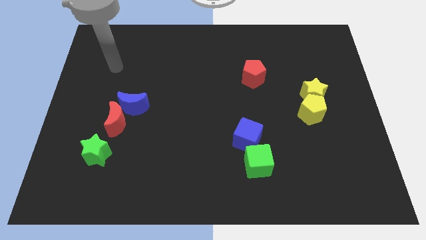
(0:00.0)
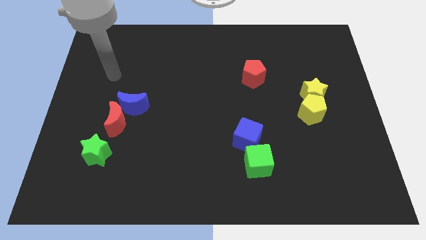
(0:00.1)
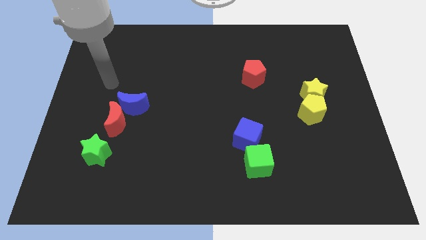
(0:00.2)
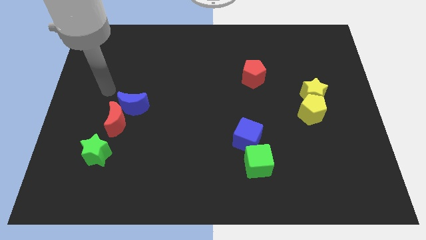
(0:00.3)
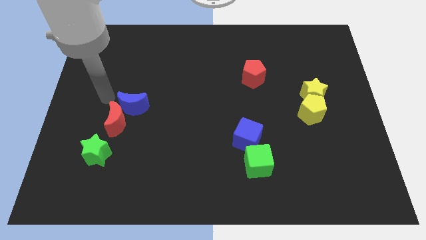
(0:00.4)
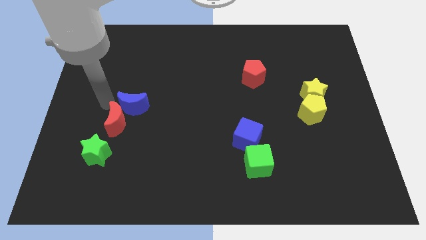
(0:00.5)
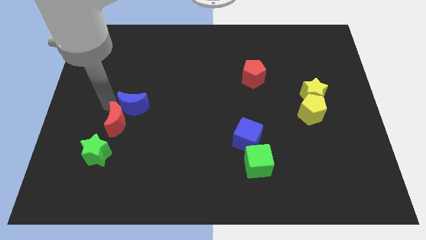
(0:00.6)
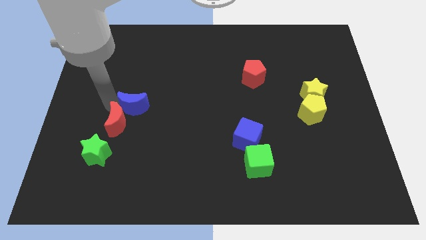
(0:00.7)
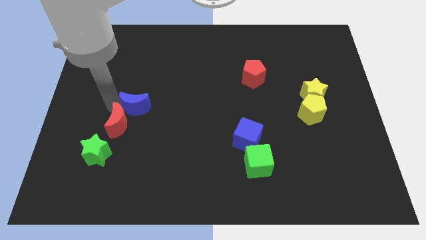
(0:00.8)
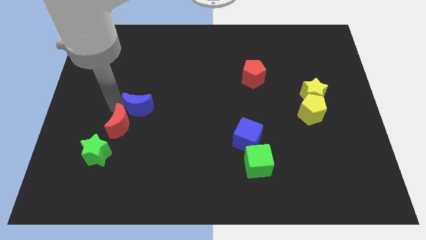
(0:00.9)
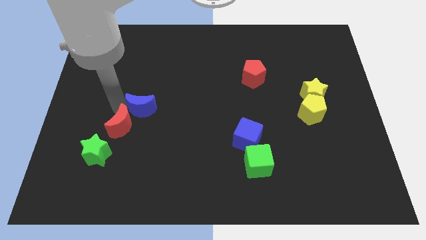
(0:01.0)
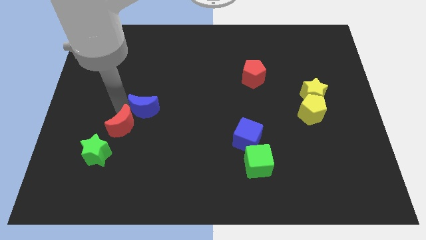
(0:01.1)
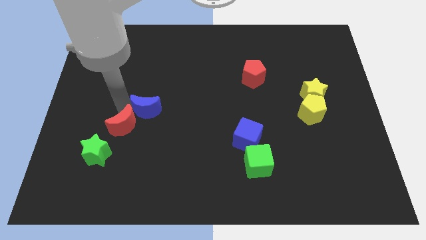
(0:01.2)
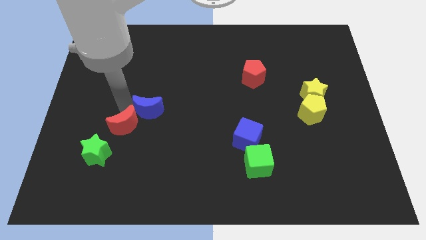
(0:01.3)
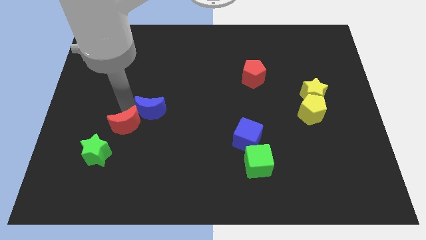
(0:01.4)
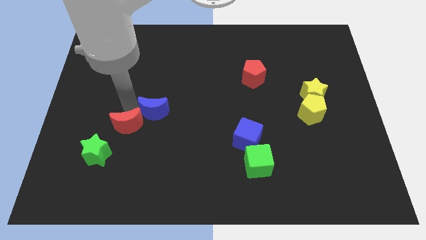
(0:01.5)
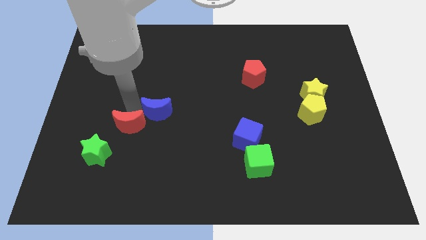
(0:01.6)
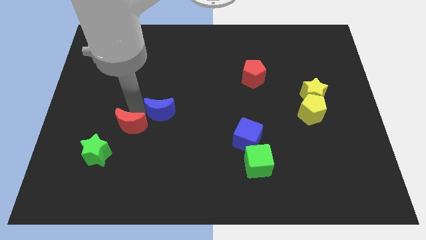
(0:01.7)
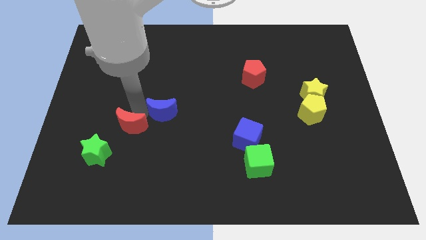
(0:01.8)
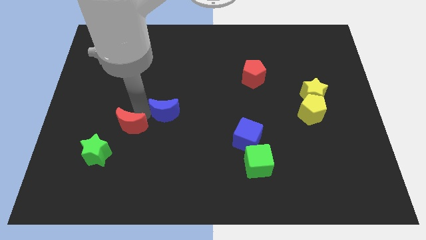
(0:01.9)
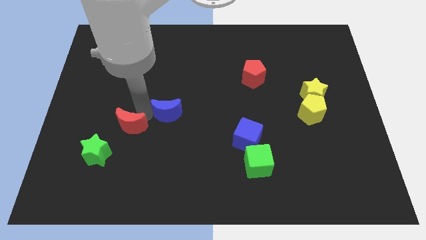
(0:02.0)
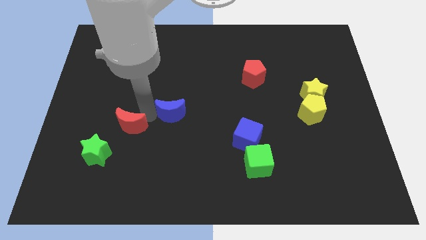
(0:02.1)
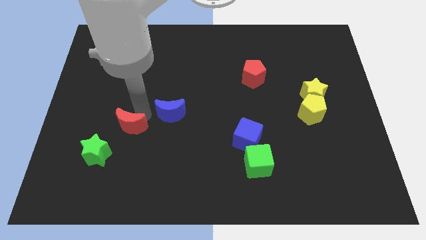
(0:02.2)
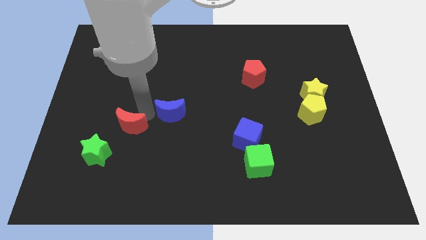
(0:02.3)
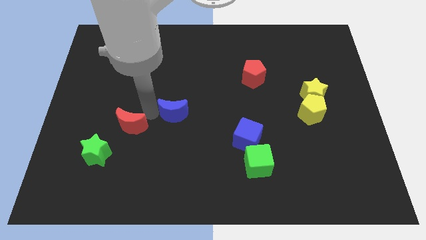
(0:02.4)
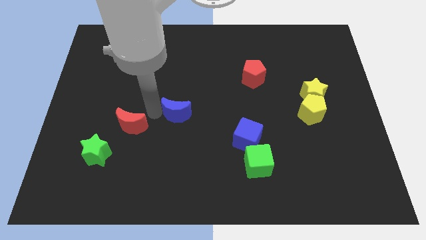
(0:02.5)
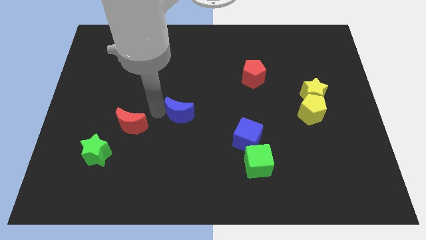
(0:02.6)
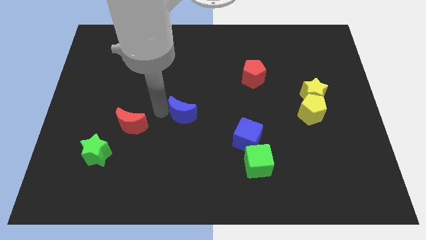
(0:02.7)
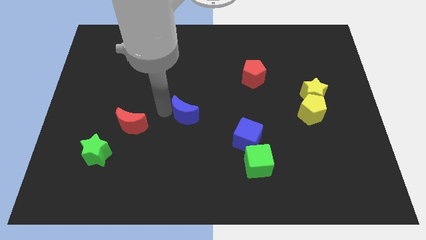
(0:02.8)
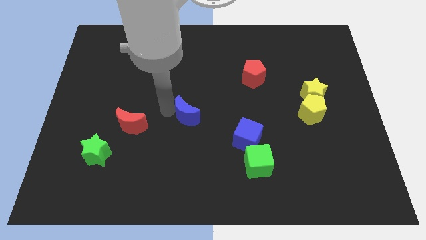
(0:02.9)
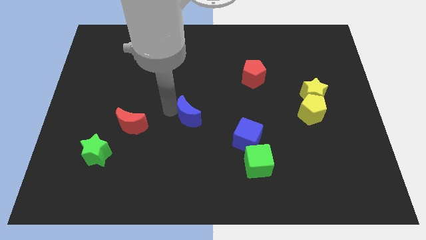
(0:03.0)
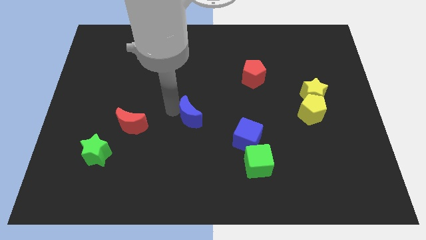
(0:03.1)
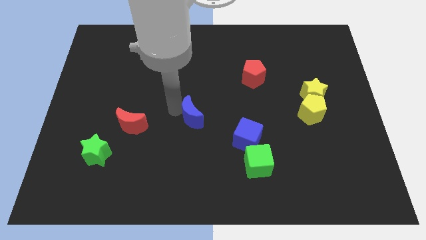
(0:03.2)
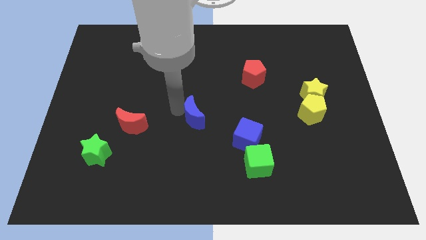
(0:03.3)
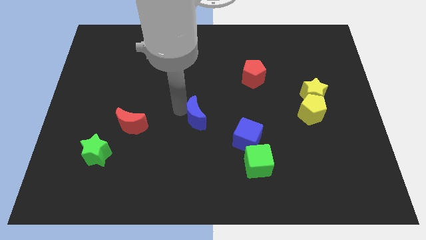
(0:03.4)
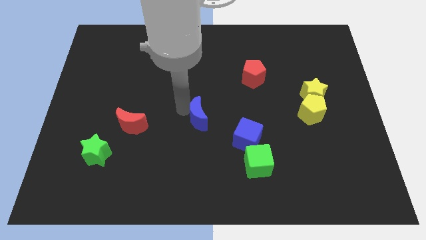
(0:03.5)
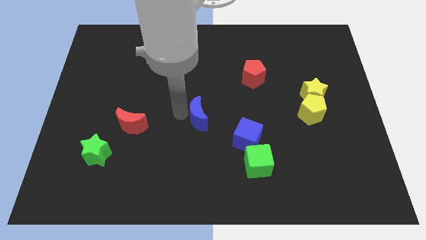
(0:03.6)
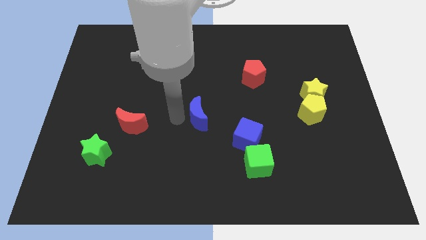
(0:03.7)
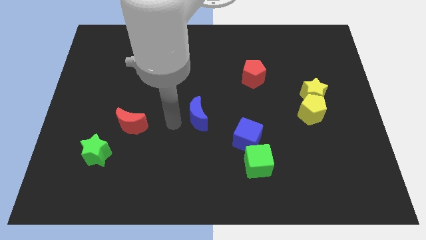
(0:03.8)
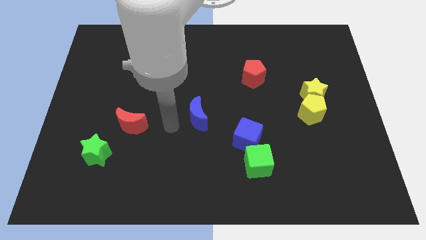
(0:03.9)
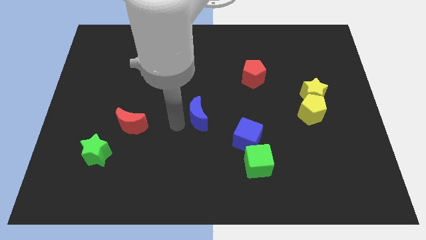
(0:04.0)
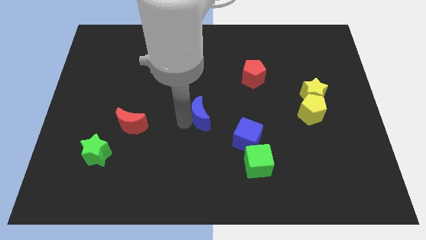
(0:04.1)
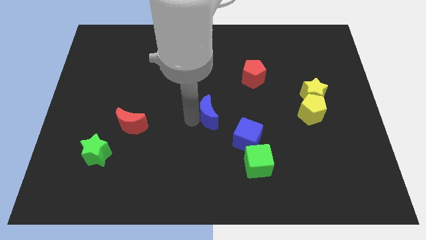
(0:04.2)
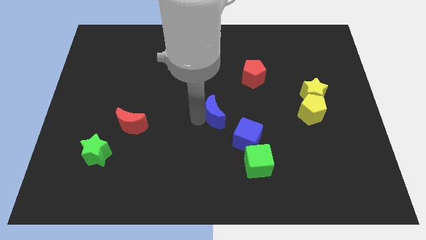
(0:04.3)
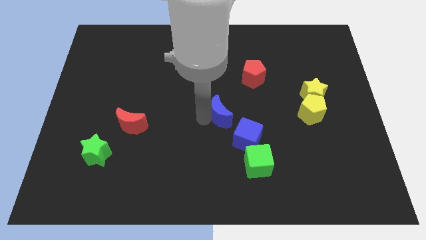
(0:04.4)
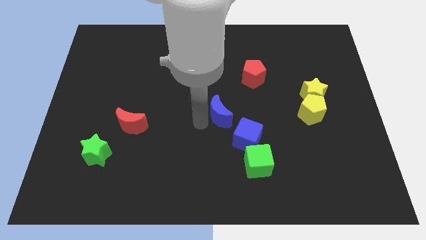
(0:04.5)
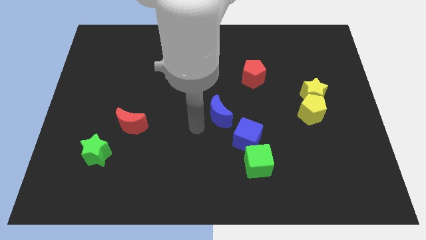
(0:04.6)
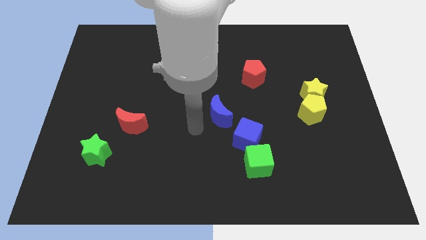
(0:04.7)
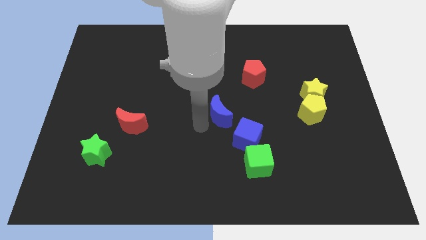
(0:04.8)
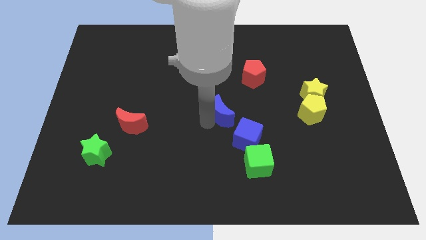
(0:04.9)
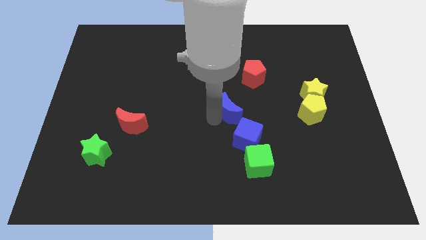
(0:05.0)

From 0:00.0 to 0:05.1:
slide the blue moon to the top side of the blue cube

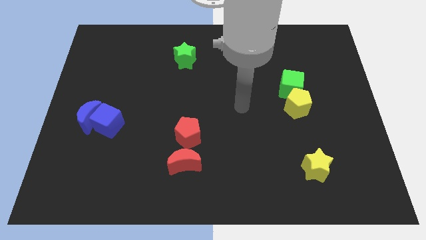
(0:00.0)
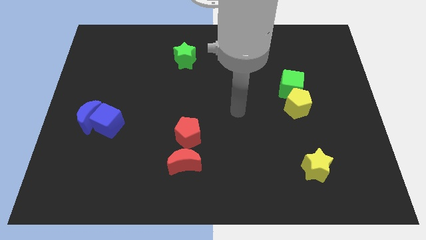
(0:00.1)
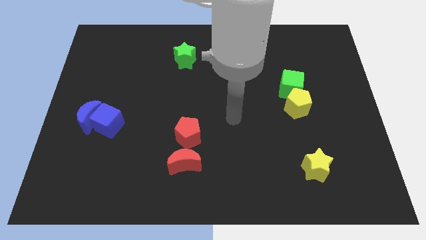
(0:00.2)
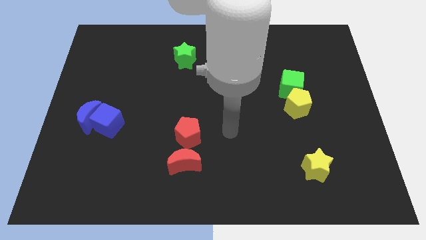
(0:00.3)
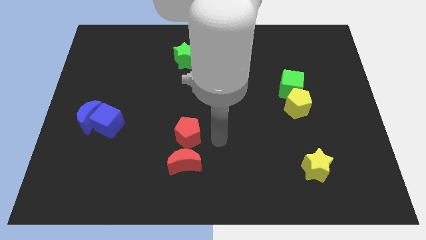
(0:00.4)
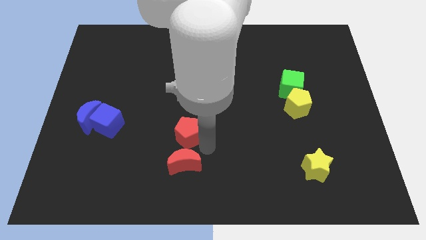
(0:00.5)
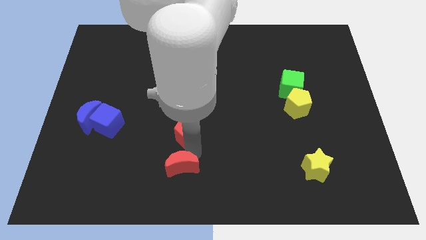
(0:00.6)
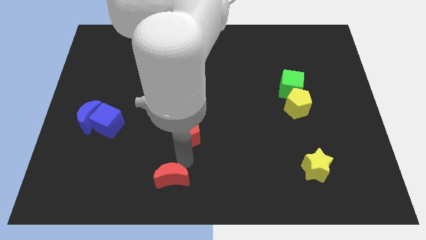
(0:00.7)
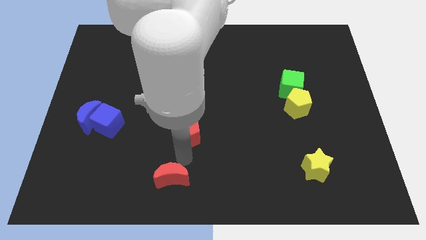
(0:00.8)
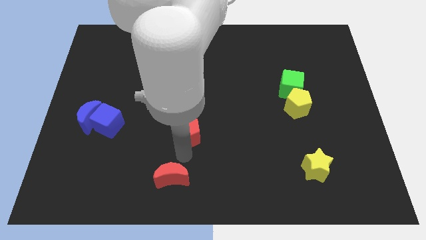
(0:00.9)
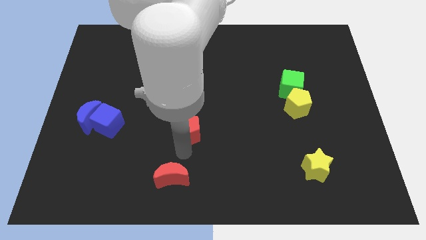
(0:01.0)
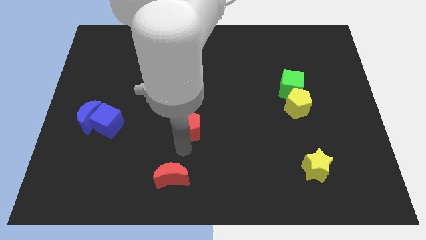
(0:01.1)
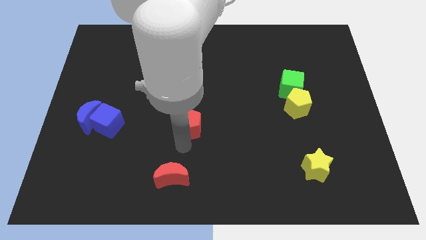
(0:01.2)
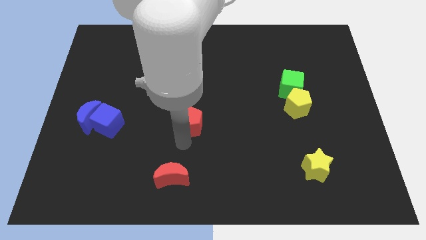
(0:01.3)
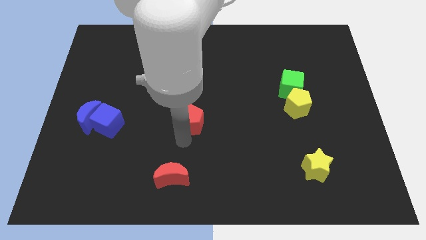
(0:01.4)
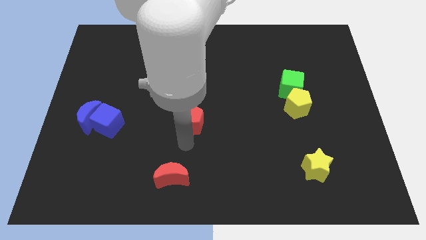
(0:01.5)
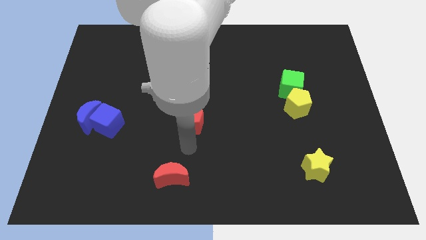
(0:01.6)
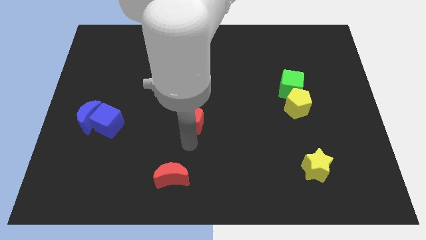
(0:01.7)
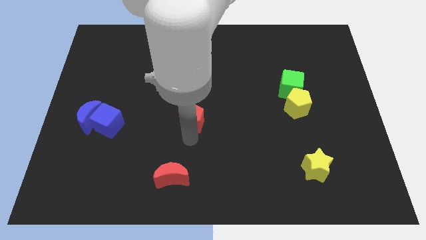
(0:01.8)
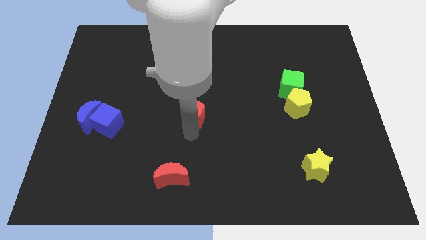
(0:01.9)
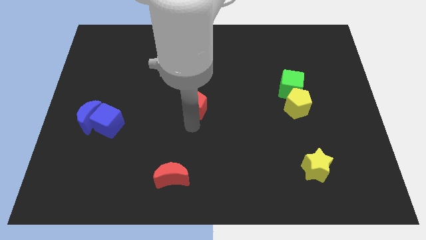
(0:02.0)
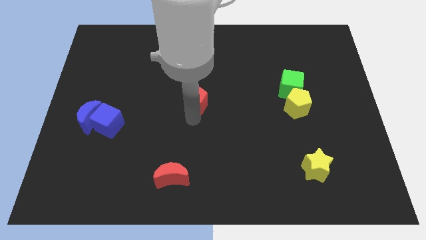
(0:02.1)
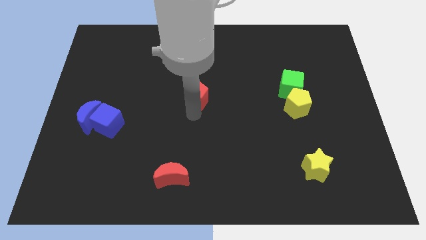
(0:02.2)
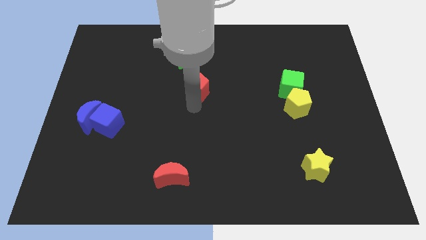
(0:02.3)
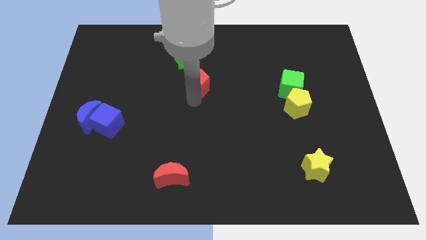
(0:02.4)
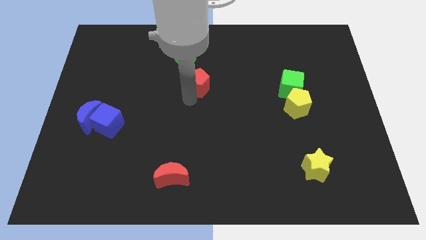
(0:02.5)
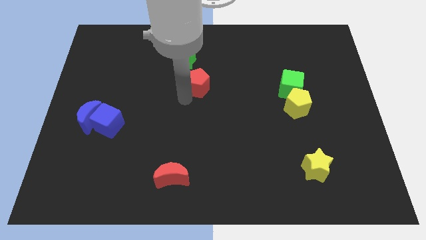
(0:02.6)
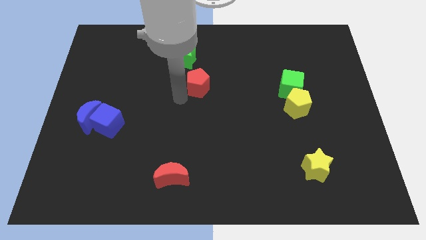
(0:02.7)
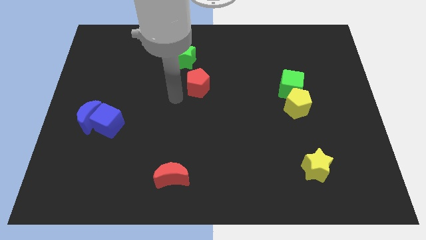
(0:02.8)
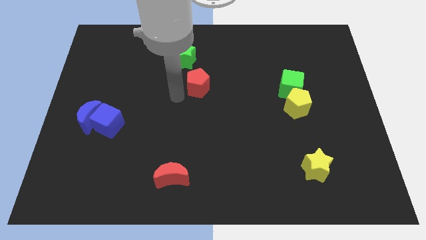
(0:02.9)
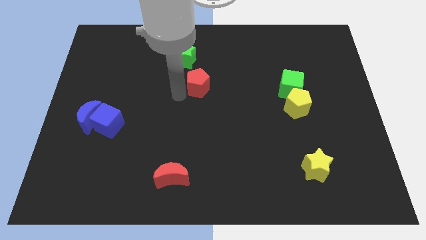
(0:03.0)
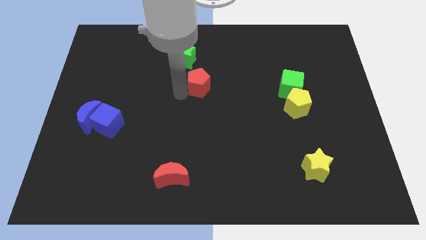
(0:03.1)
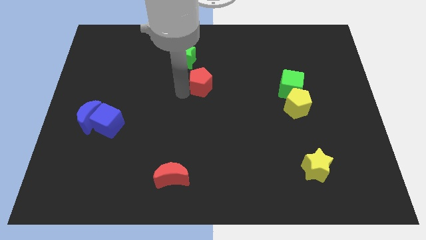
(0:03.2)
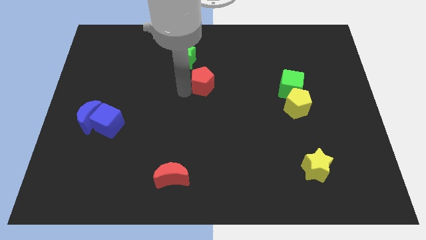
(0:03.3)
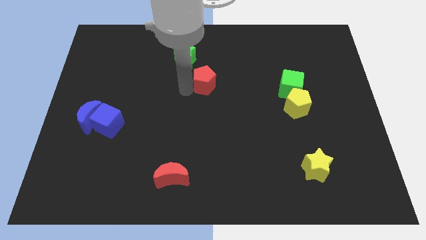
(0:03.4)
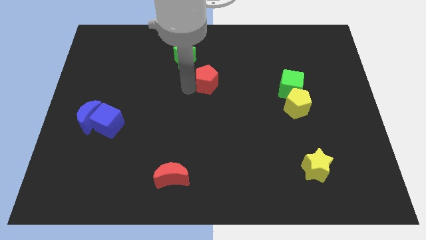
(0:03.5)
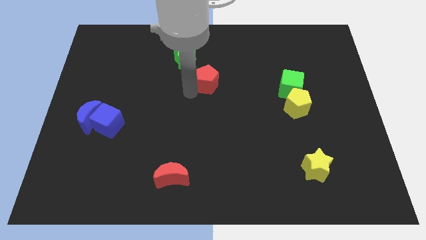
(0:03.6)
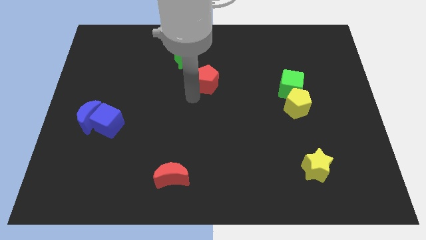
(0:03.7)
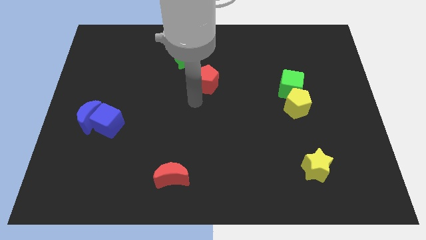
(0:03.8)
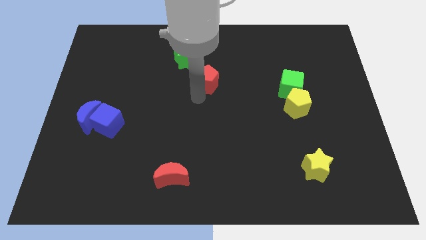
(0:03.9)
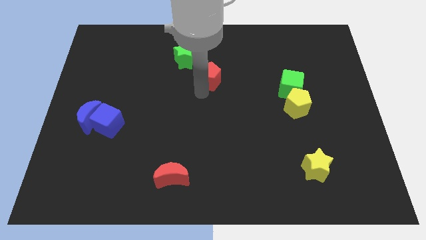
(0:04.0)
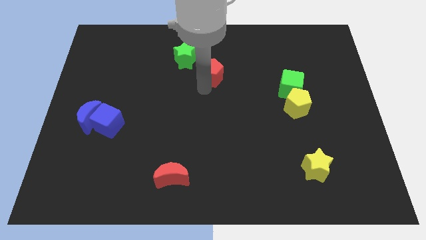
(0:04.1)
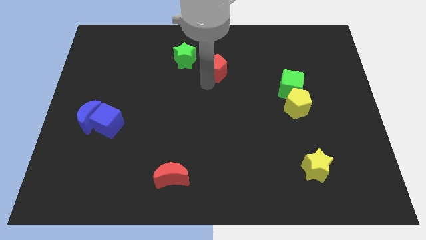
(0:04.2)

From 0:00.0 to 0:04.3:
put the red pentagon just right of the green star
